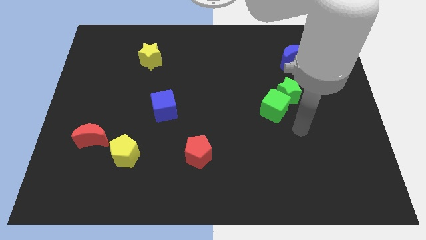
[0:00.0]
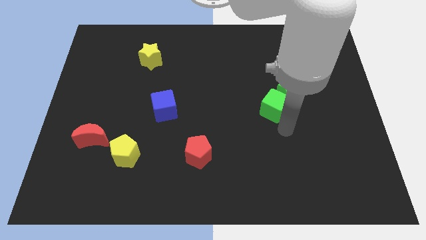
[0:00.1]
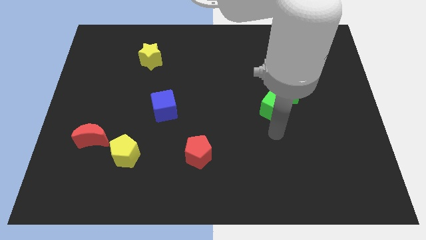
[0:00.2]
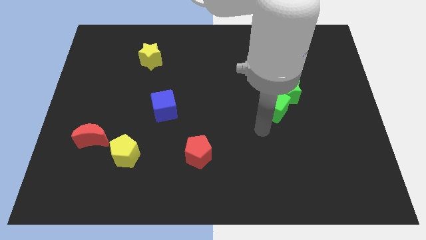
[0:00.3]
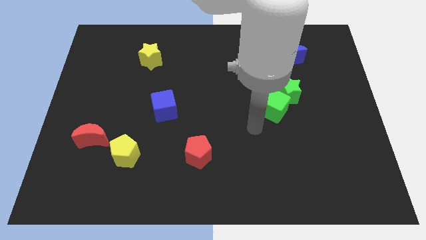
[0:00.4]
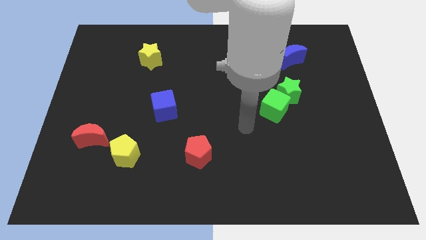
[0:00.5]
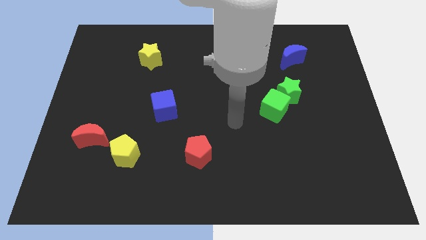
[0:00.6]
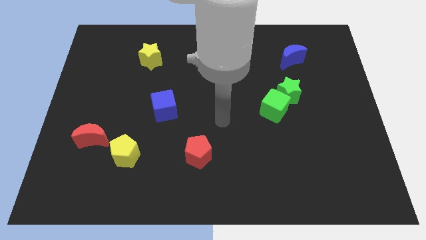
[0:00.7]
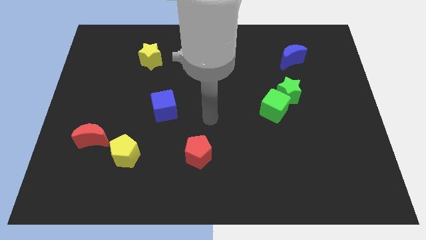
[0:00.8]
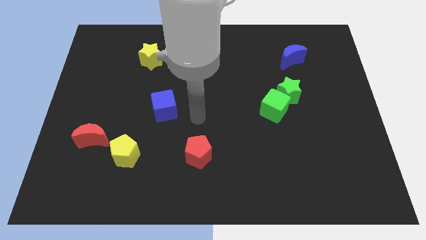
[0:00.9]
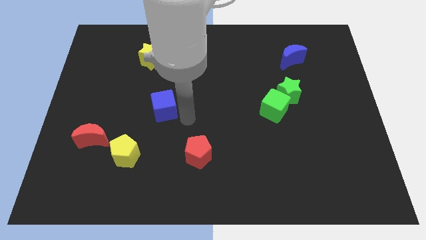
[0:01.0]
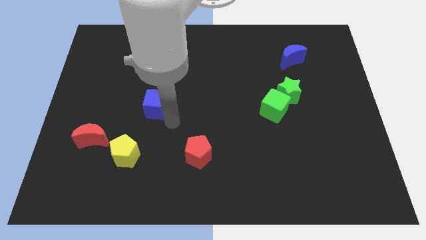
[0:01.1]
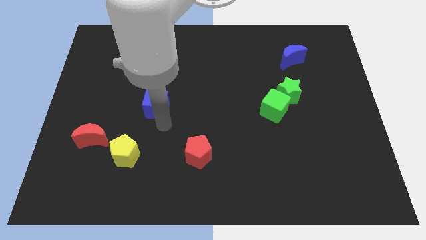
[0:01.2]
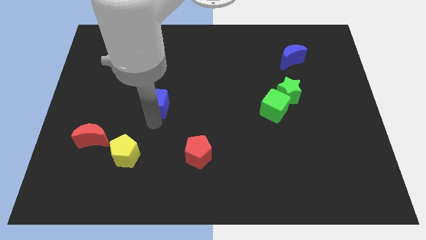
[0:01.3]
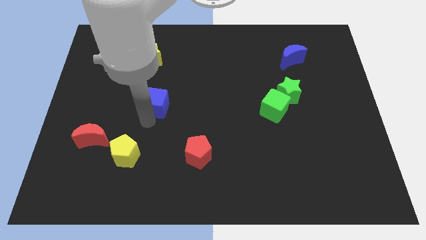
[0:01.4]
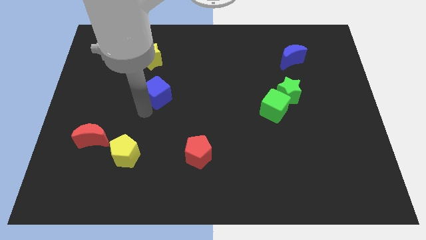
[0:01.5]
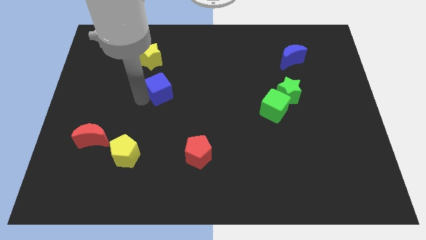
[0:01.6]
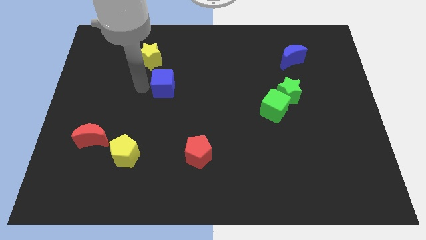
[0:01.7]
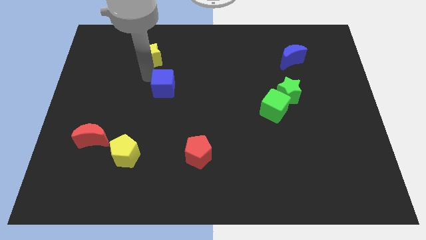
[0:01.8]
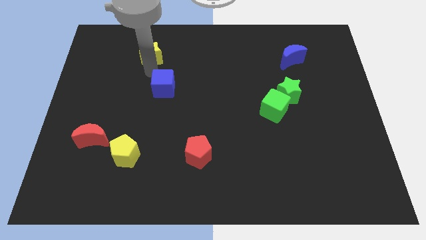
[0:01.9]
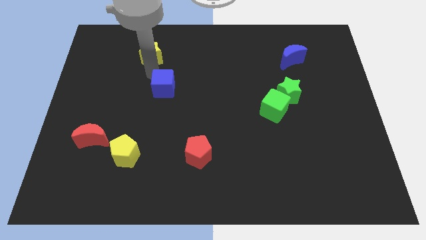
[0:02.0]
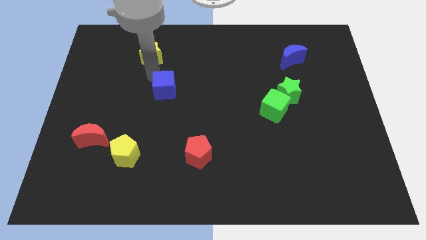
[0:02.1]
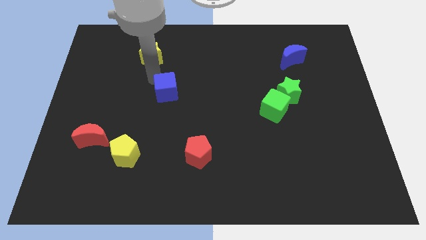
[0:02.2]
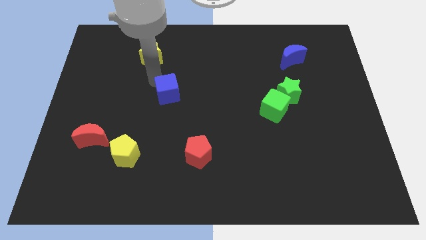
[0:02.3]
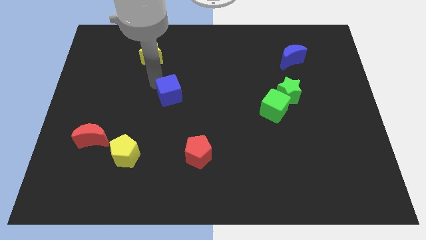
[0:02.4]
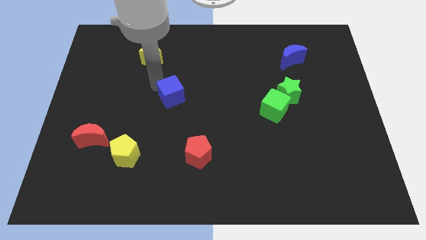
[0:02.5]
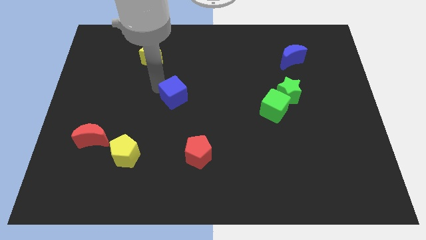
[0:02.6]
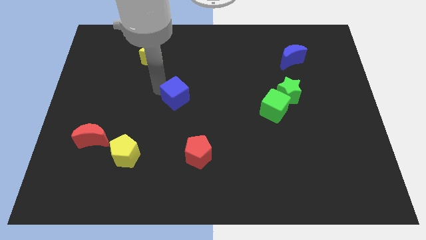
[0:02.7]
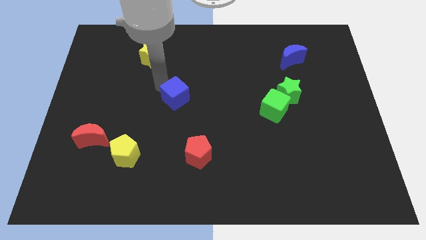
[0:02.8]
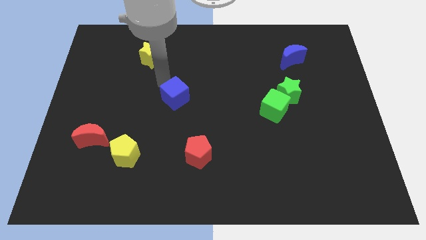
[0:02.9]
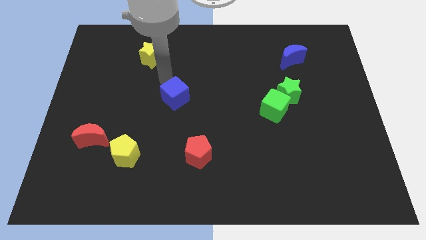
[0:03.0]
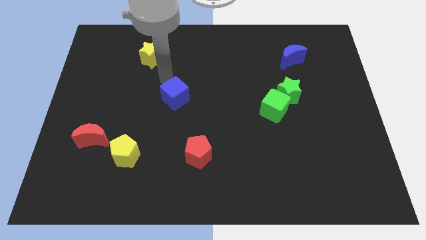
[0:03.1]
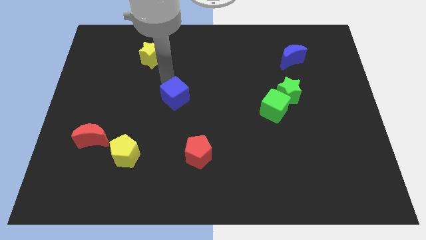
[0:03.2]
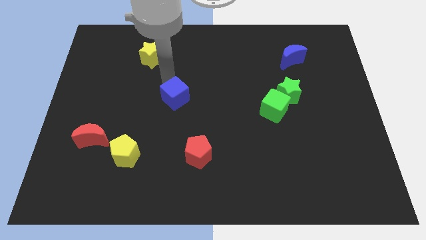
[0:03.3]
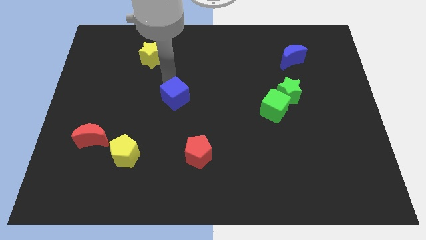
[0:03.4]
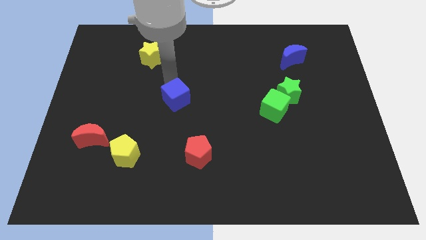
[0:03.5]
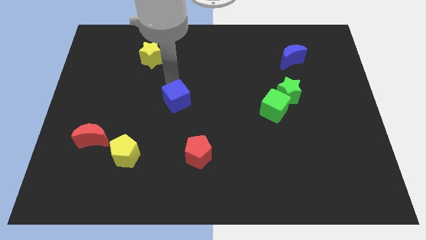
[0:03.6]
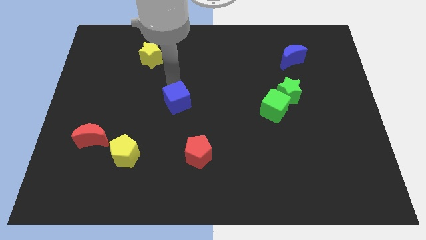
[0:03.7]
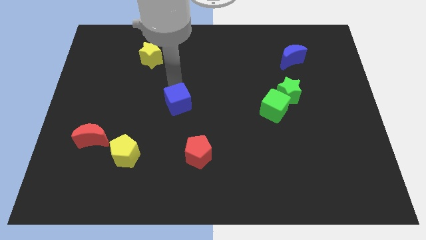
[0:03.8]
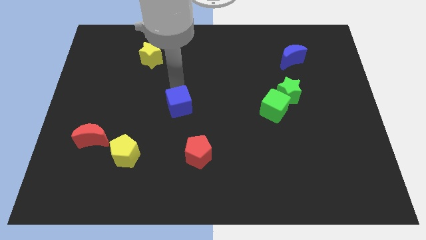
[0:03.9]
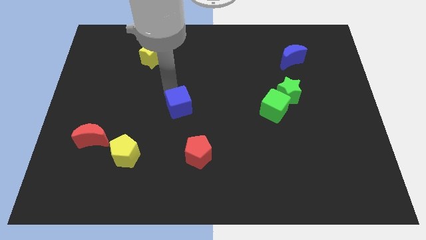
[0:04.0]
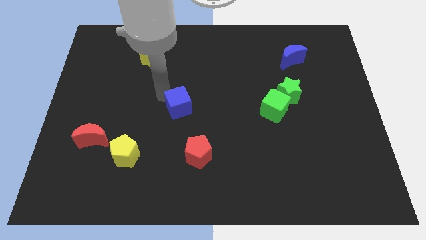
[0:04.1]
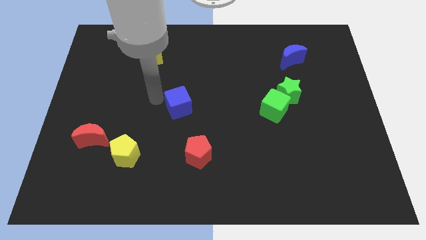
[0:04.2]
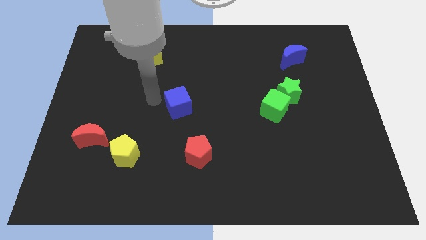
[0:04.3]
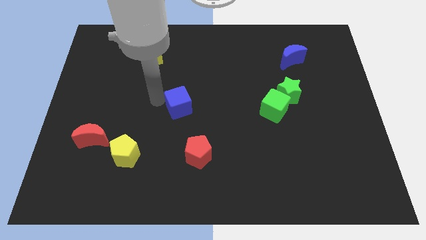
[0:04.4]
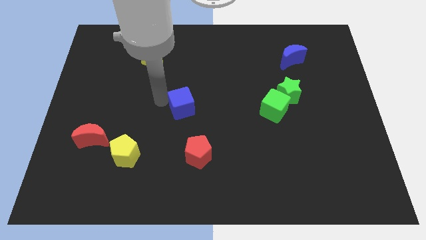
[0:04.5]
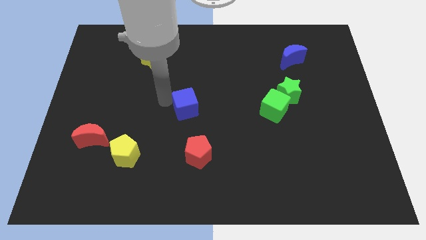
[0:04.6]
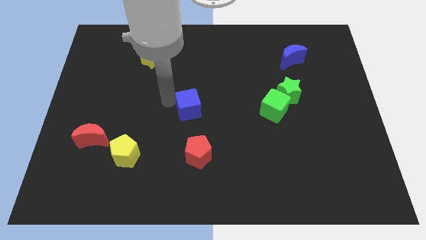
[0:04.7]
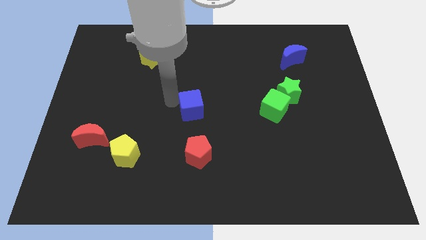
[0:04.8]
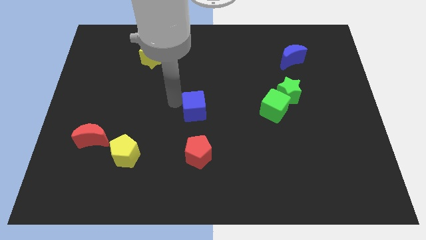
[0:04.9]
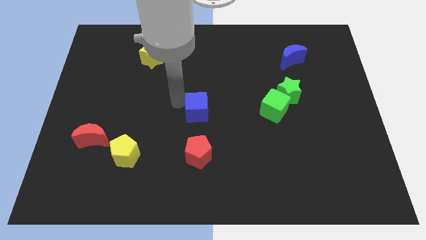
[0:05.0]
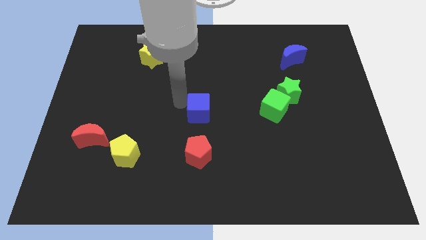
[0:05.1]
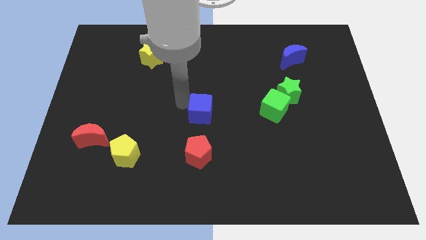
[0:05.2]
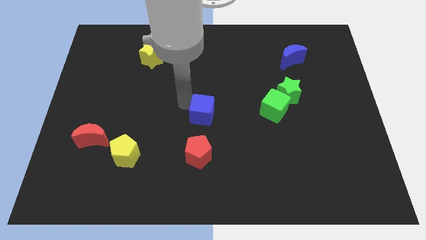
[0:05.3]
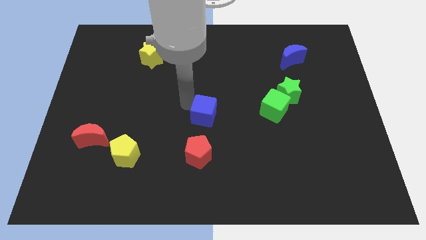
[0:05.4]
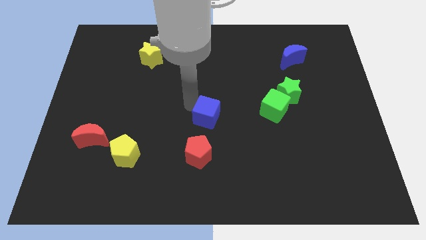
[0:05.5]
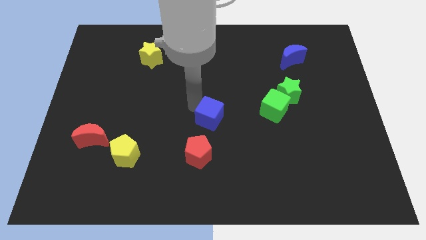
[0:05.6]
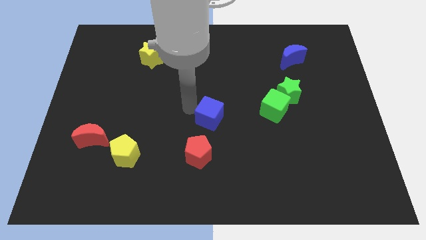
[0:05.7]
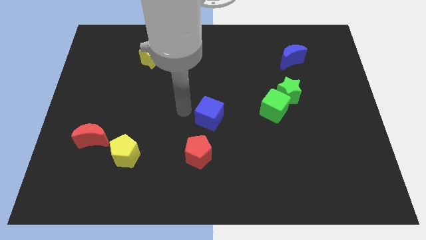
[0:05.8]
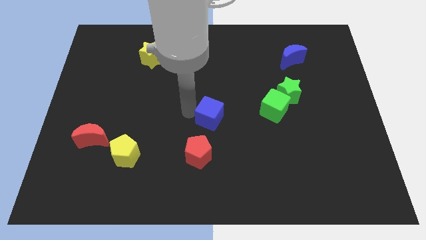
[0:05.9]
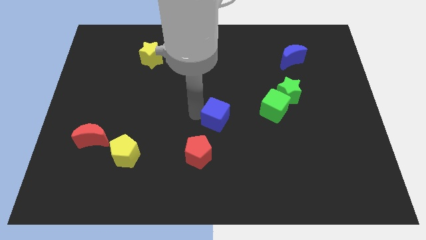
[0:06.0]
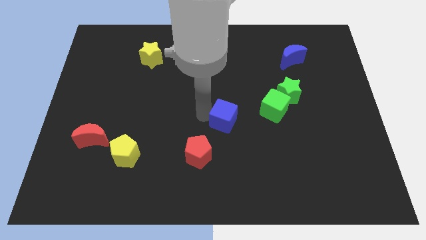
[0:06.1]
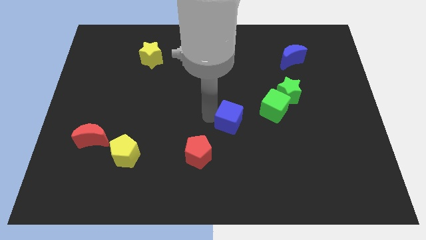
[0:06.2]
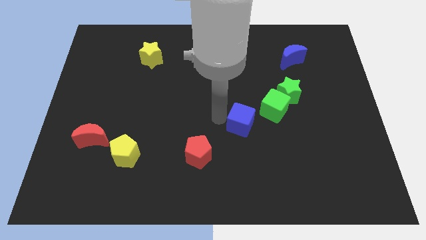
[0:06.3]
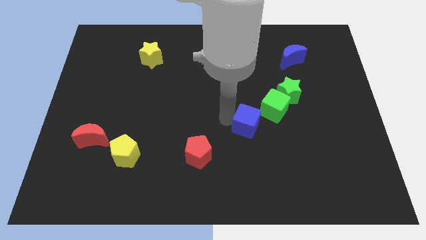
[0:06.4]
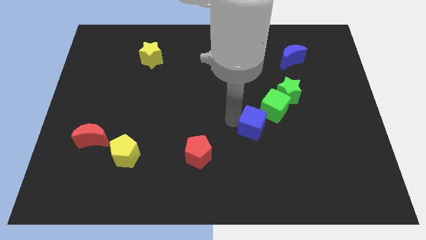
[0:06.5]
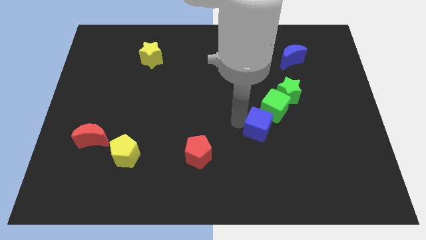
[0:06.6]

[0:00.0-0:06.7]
push the blue cube to the right

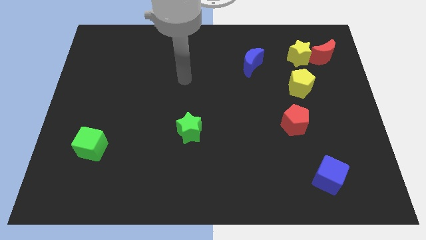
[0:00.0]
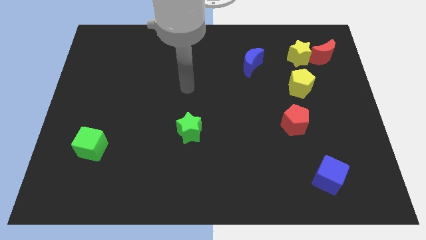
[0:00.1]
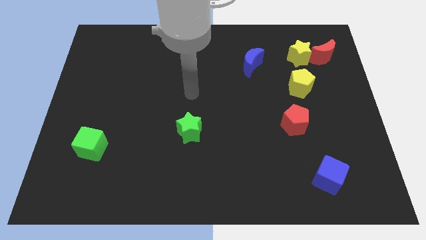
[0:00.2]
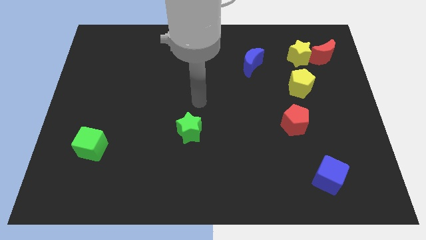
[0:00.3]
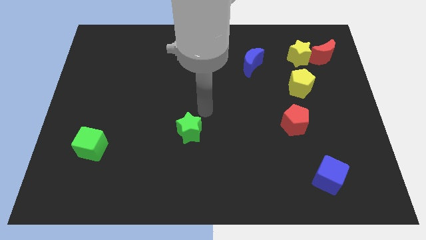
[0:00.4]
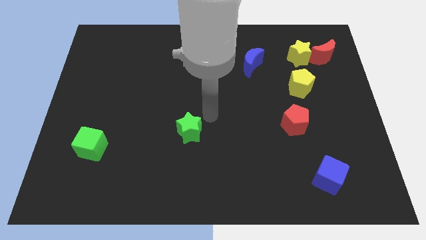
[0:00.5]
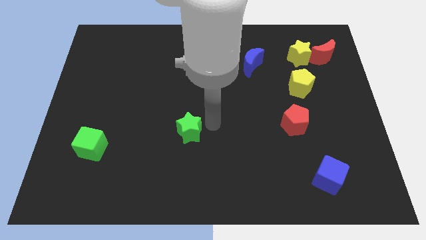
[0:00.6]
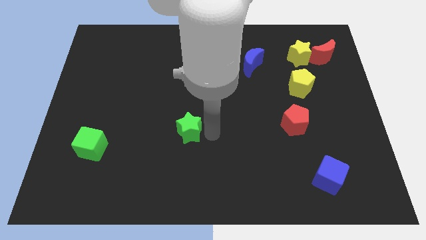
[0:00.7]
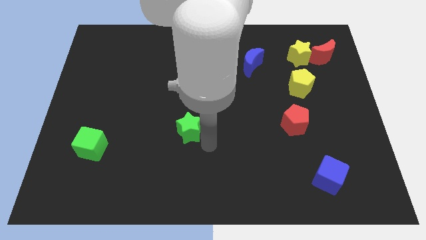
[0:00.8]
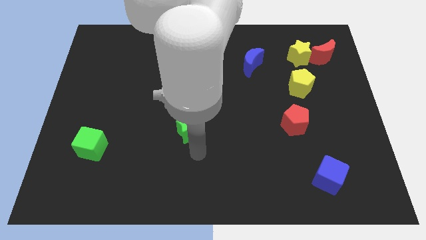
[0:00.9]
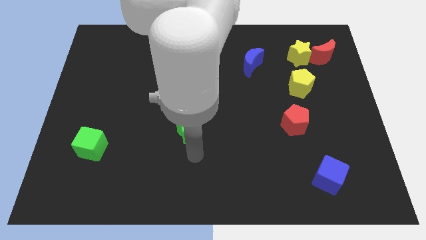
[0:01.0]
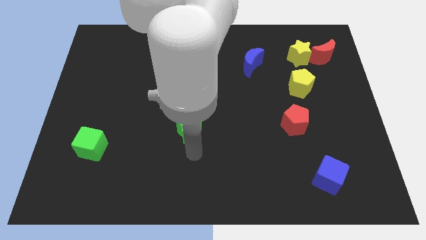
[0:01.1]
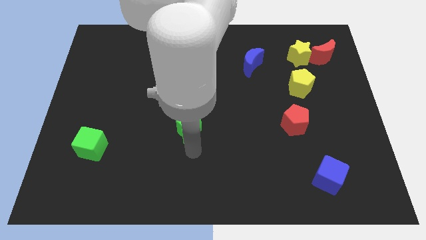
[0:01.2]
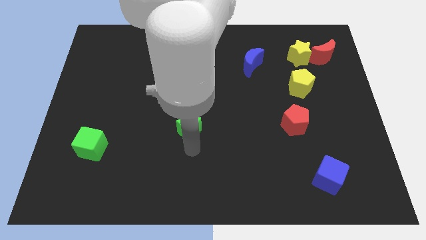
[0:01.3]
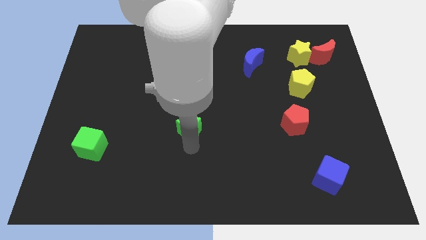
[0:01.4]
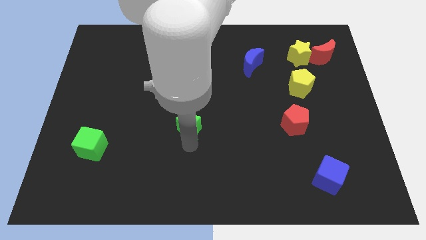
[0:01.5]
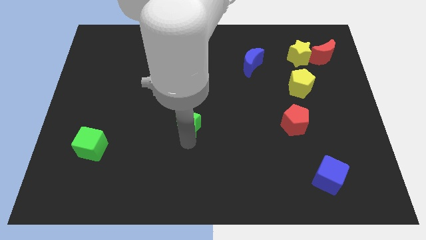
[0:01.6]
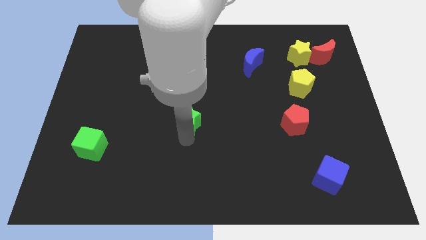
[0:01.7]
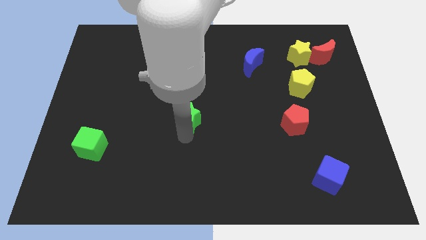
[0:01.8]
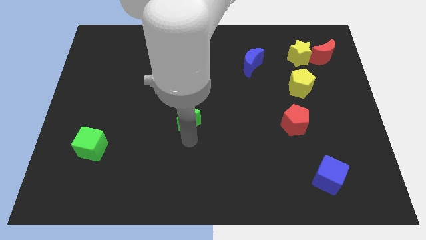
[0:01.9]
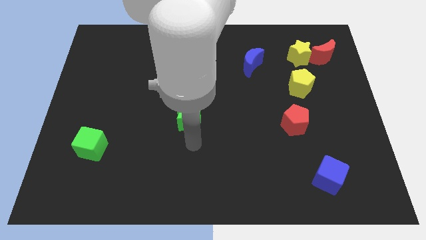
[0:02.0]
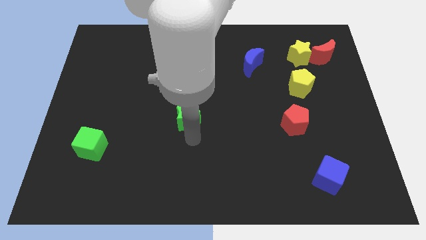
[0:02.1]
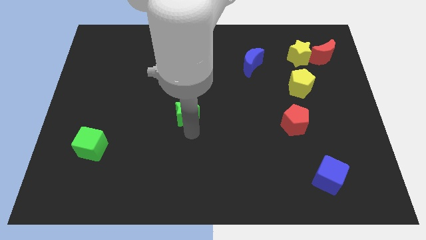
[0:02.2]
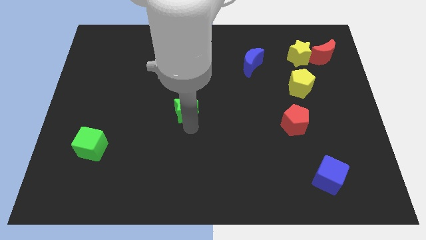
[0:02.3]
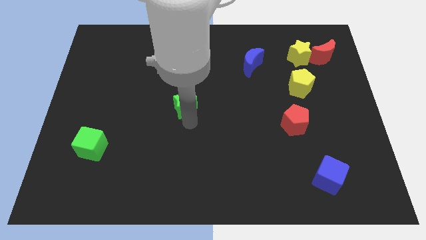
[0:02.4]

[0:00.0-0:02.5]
push the green star upwards a little bit
